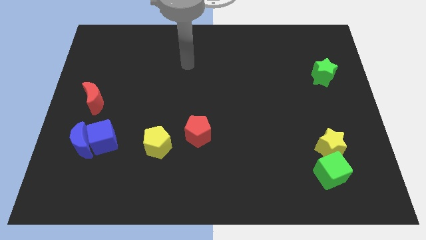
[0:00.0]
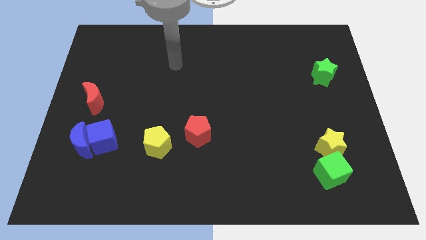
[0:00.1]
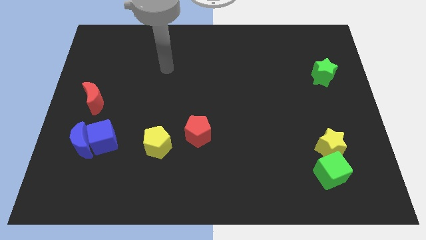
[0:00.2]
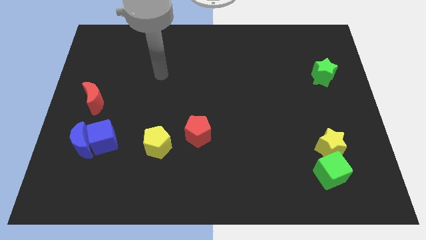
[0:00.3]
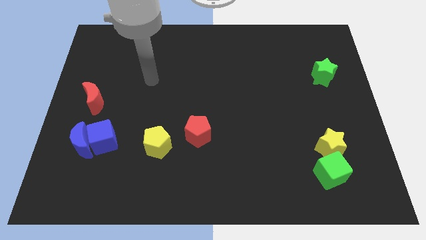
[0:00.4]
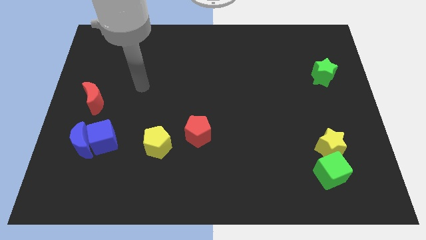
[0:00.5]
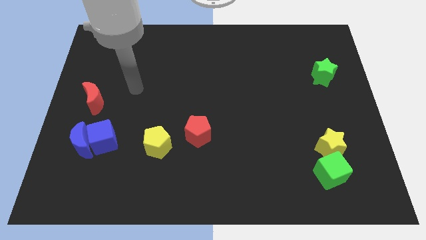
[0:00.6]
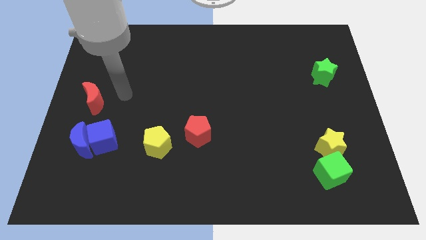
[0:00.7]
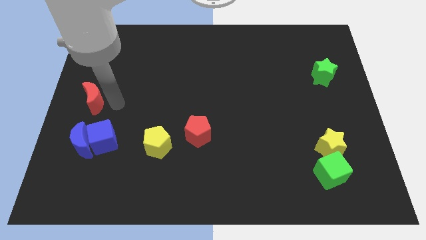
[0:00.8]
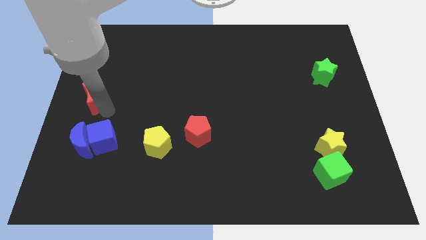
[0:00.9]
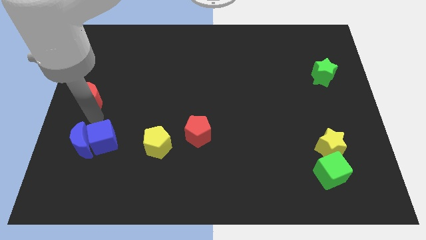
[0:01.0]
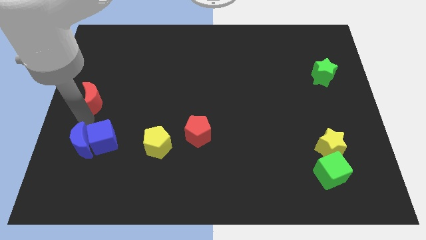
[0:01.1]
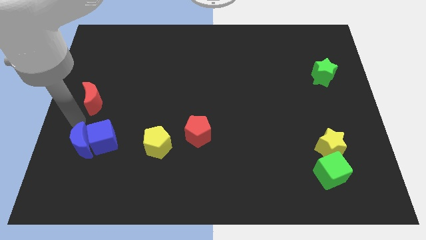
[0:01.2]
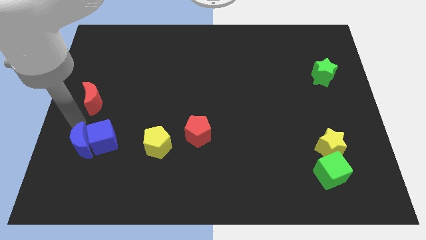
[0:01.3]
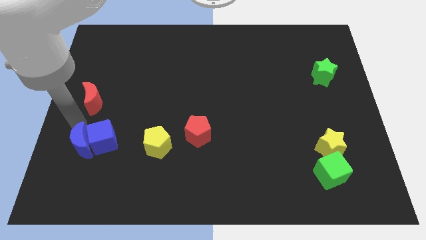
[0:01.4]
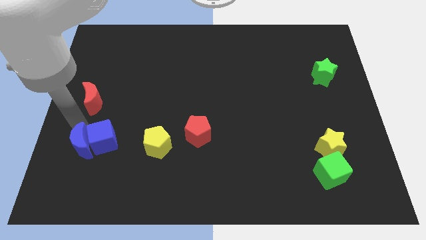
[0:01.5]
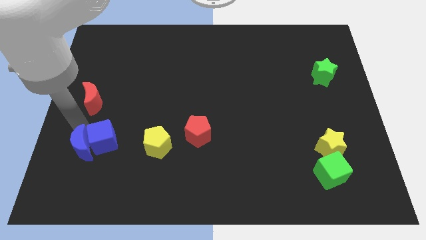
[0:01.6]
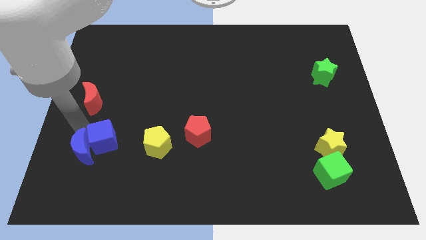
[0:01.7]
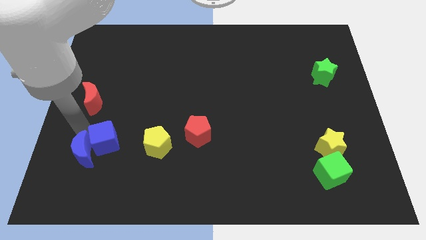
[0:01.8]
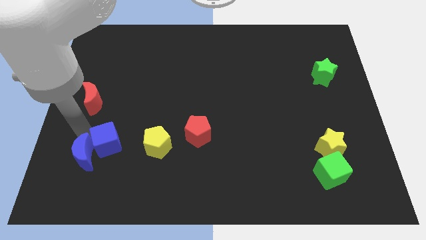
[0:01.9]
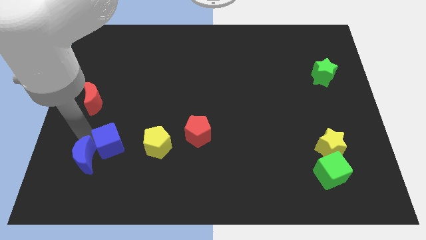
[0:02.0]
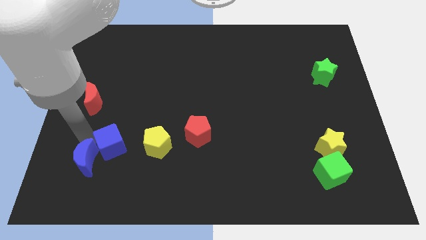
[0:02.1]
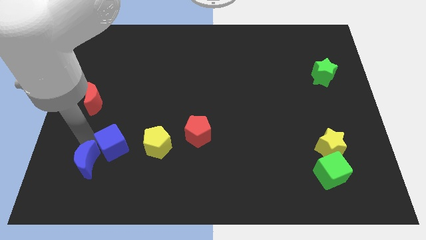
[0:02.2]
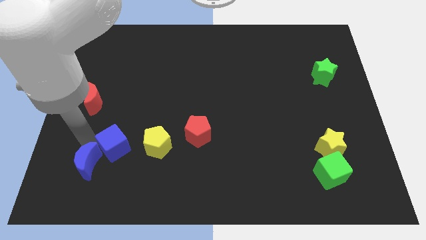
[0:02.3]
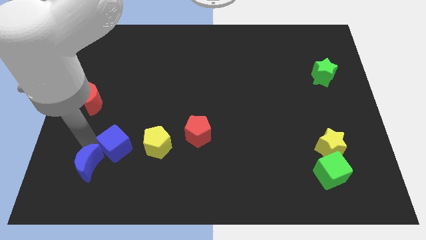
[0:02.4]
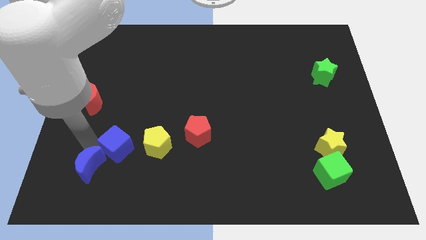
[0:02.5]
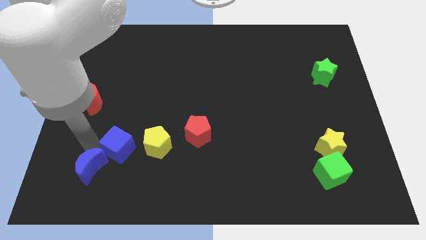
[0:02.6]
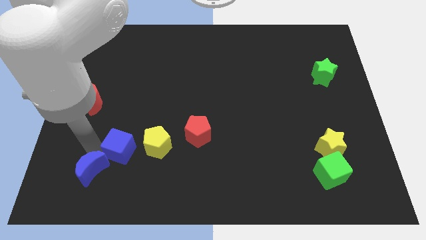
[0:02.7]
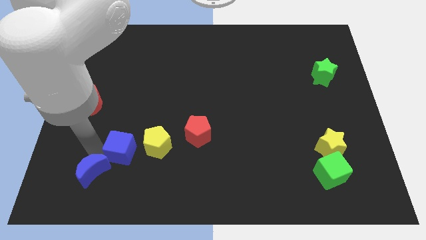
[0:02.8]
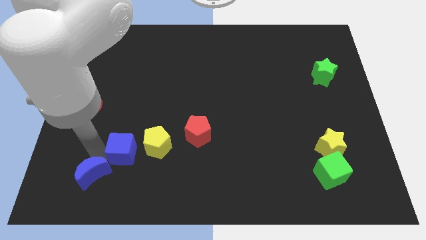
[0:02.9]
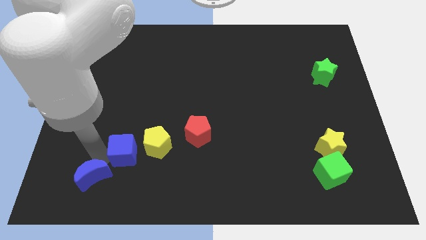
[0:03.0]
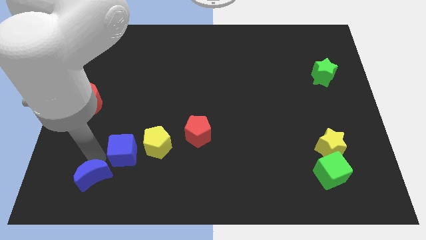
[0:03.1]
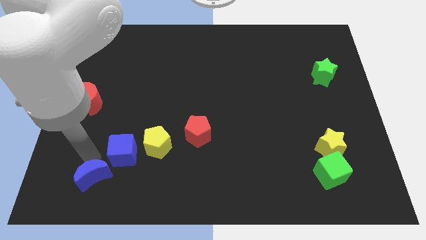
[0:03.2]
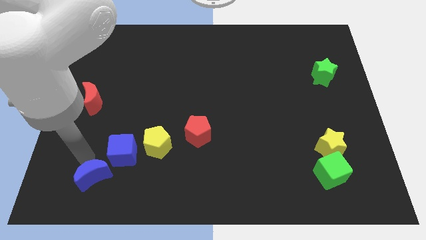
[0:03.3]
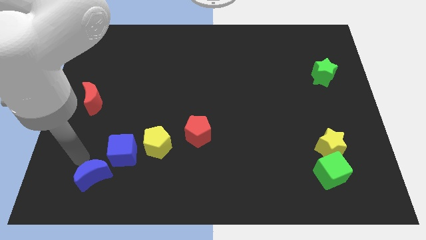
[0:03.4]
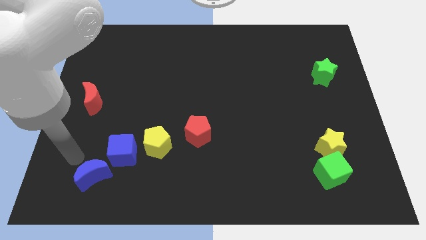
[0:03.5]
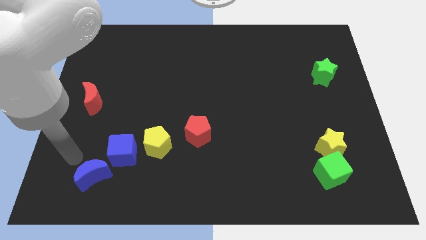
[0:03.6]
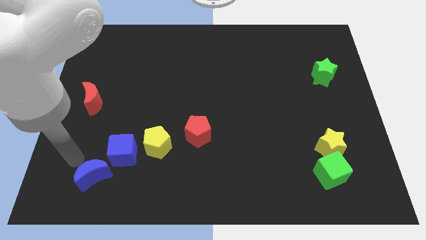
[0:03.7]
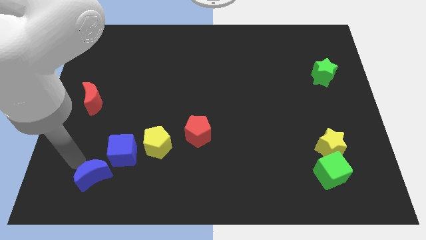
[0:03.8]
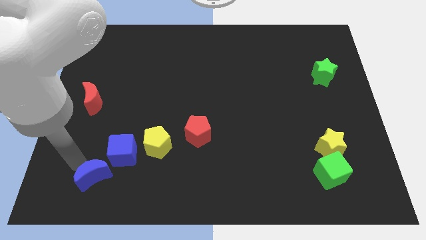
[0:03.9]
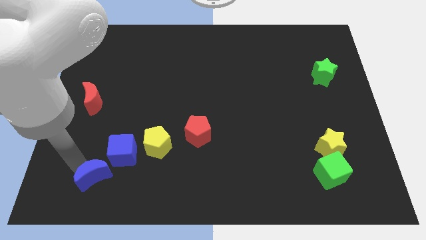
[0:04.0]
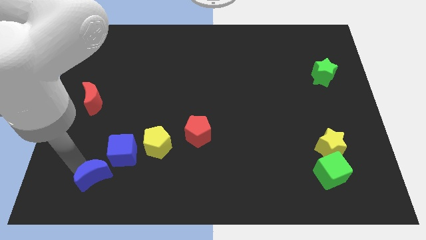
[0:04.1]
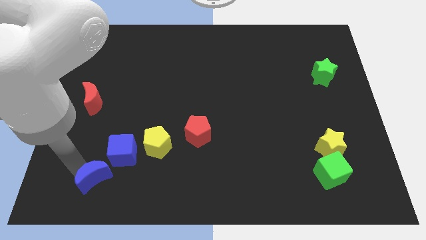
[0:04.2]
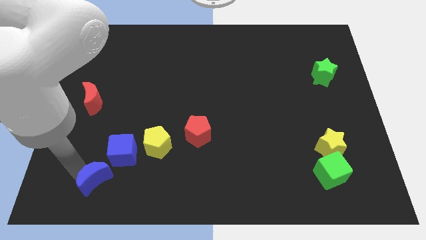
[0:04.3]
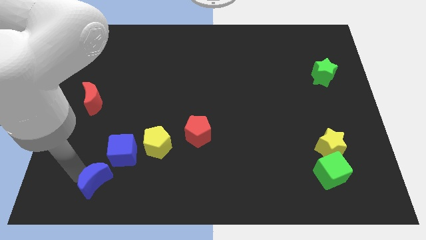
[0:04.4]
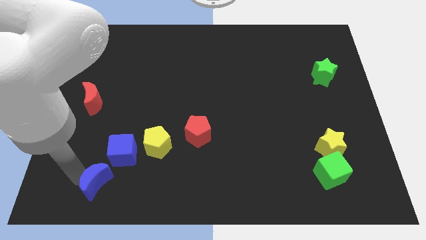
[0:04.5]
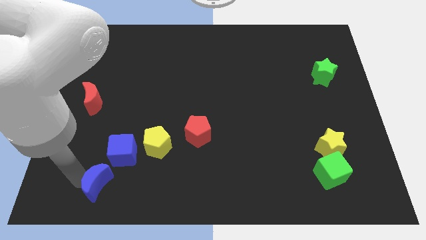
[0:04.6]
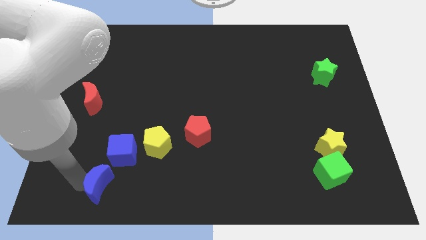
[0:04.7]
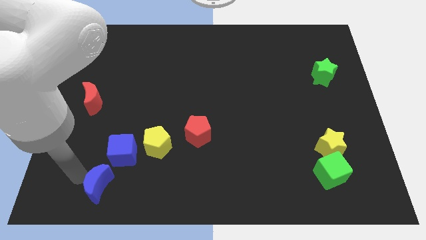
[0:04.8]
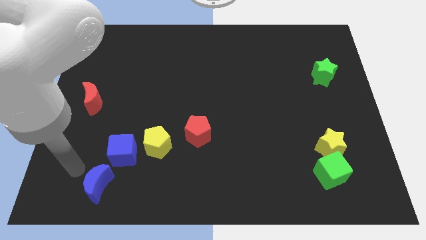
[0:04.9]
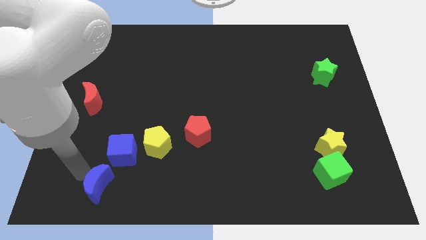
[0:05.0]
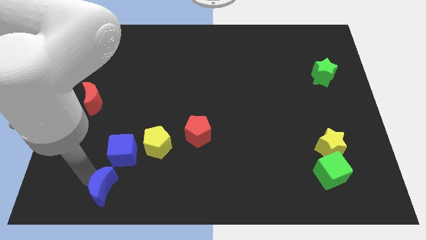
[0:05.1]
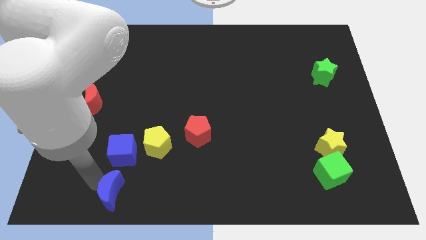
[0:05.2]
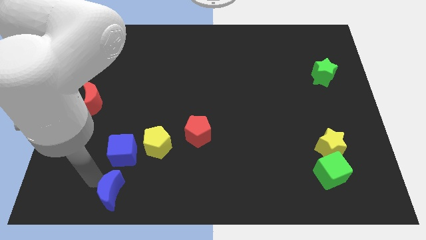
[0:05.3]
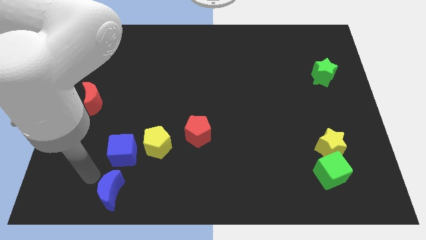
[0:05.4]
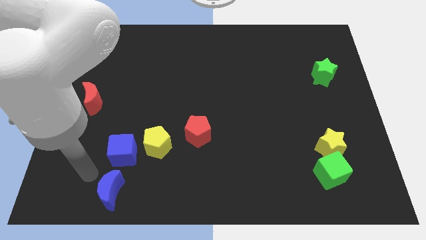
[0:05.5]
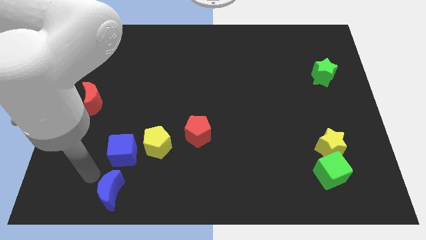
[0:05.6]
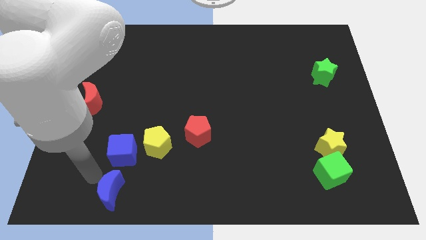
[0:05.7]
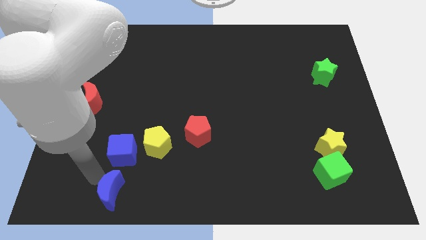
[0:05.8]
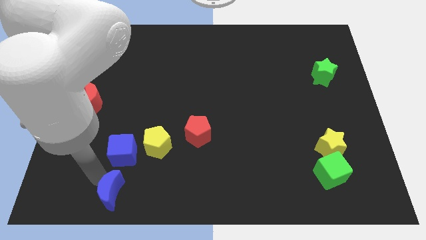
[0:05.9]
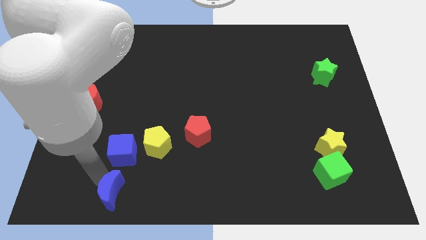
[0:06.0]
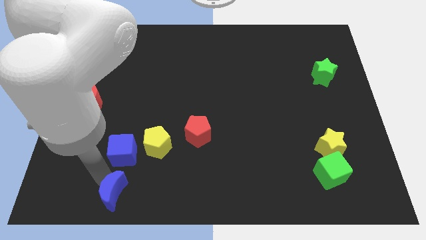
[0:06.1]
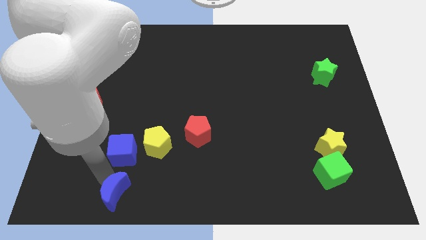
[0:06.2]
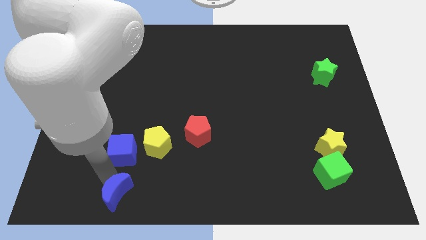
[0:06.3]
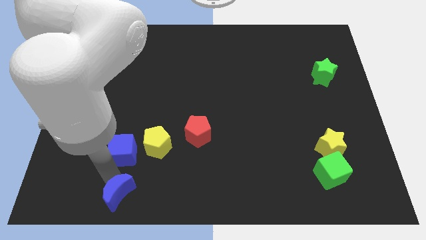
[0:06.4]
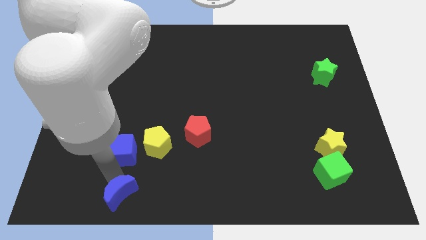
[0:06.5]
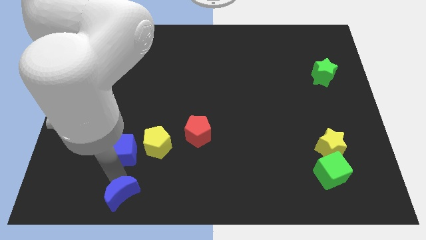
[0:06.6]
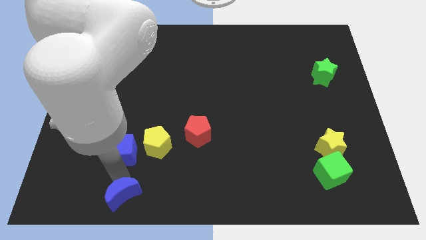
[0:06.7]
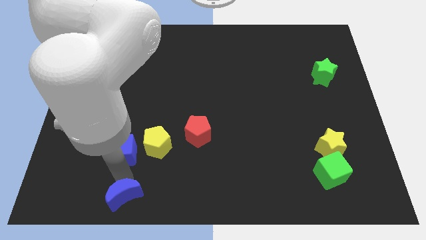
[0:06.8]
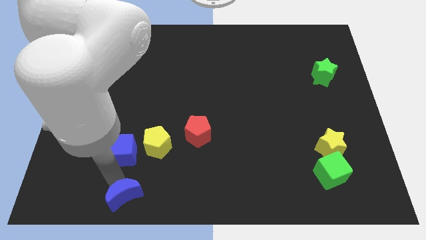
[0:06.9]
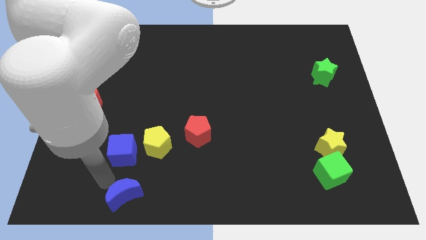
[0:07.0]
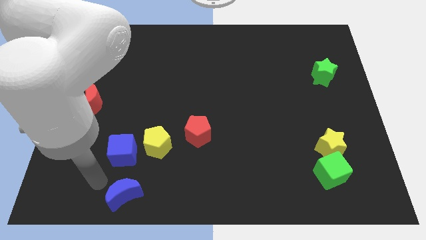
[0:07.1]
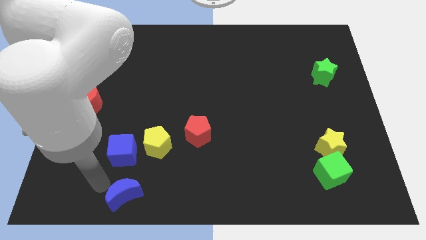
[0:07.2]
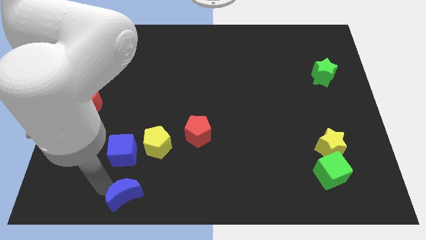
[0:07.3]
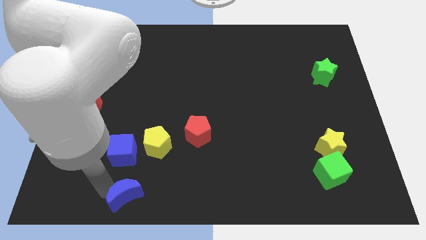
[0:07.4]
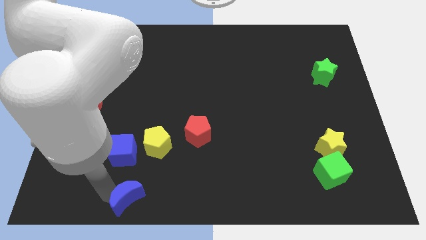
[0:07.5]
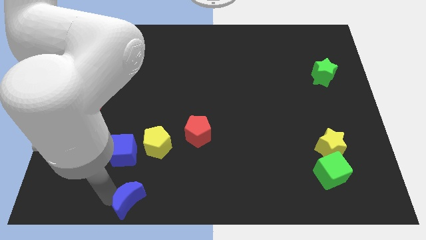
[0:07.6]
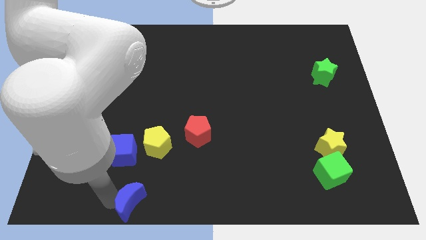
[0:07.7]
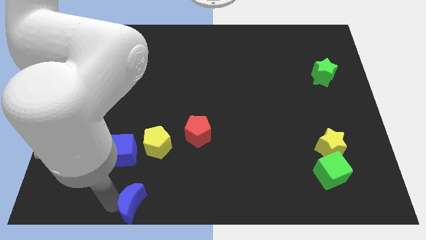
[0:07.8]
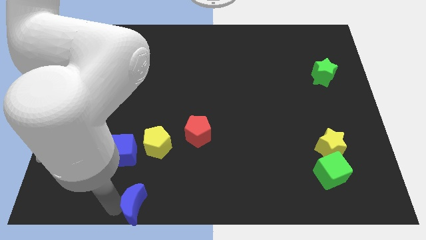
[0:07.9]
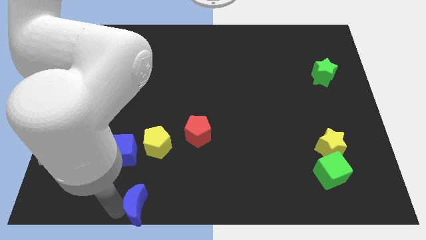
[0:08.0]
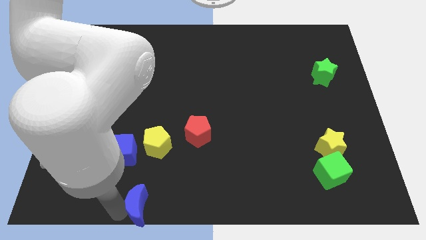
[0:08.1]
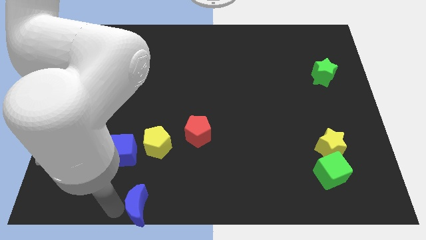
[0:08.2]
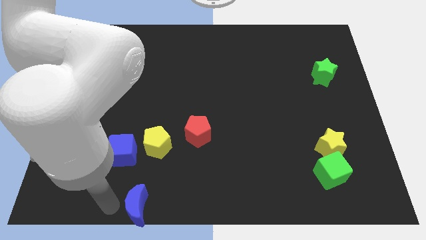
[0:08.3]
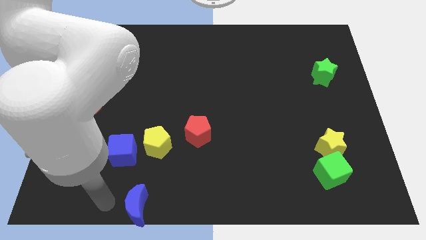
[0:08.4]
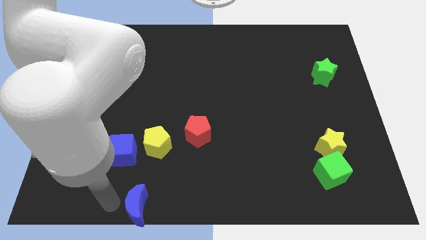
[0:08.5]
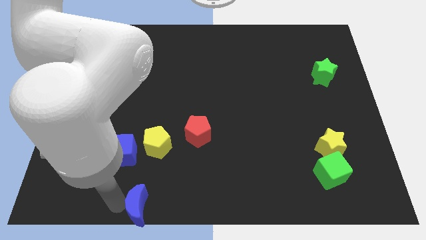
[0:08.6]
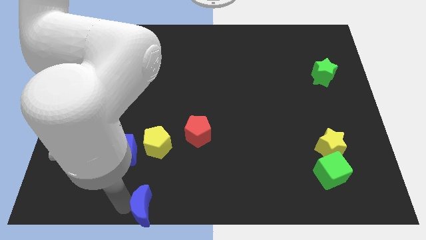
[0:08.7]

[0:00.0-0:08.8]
move the blue moon to the bottom
